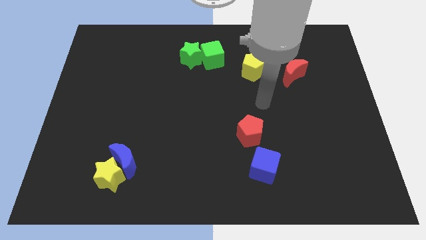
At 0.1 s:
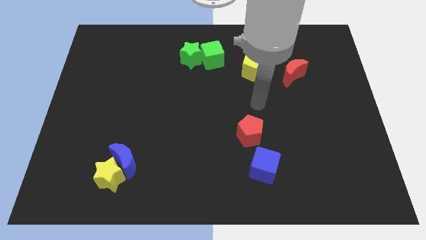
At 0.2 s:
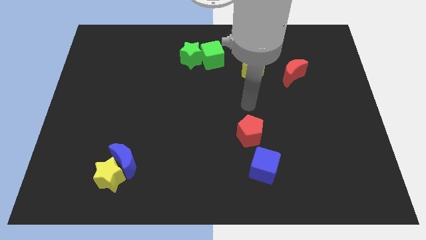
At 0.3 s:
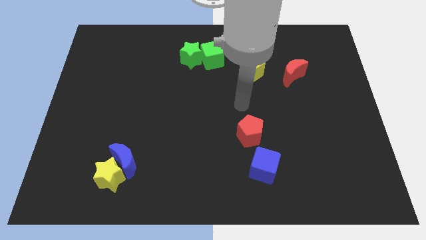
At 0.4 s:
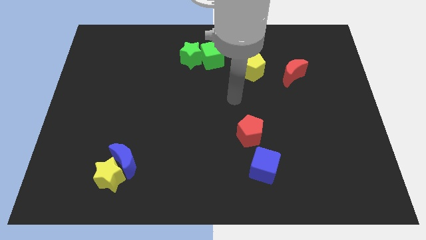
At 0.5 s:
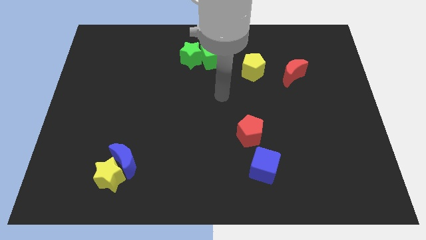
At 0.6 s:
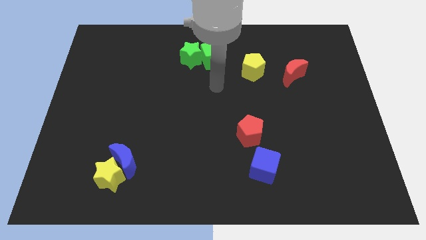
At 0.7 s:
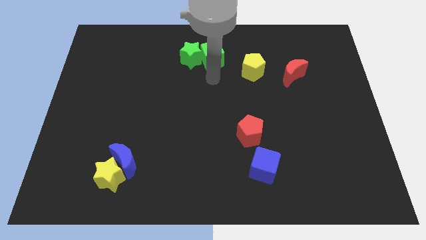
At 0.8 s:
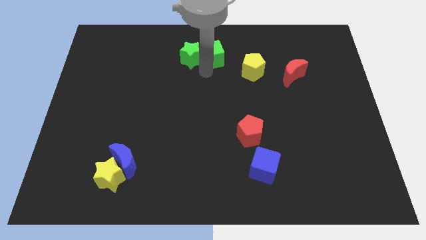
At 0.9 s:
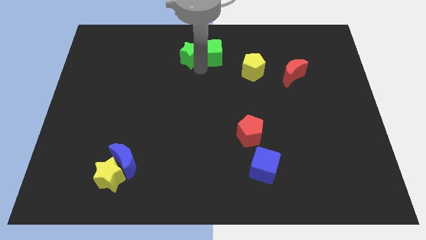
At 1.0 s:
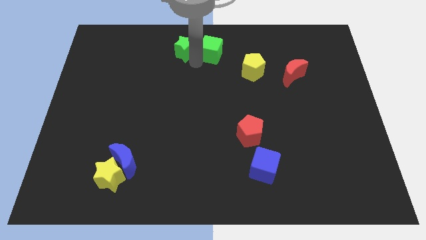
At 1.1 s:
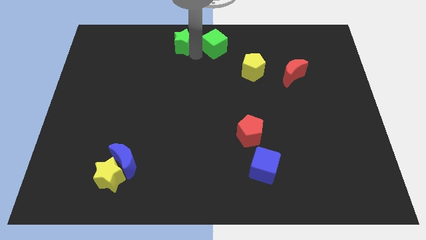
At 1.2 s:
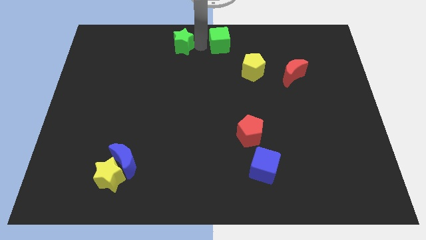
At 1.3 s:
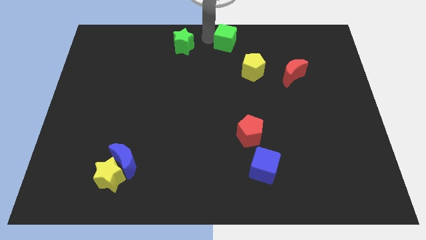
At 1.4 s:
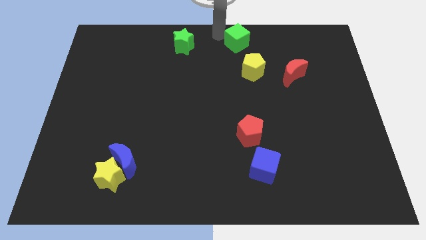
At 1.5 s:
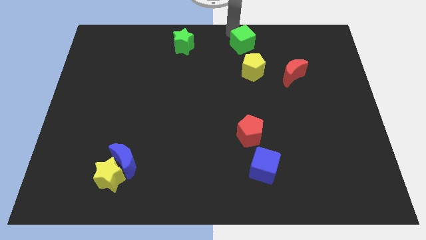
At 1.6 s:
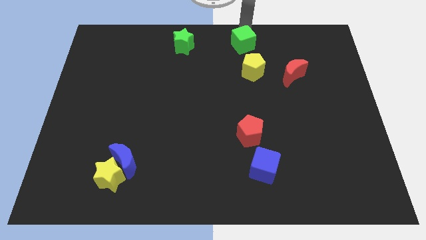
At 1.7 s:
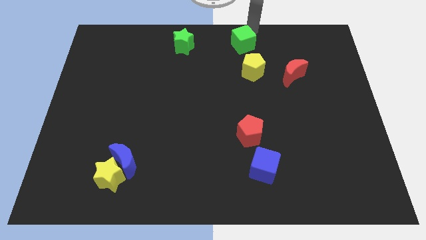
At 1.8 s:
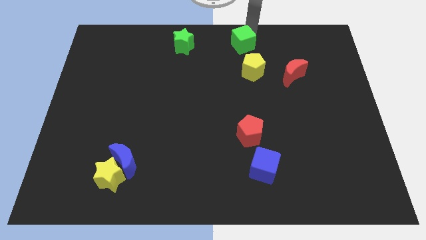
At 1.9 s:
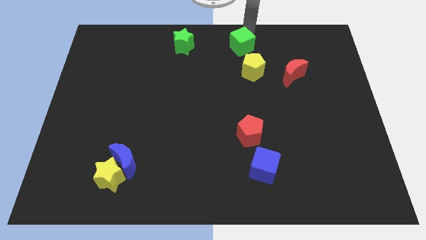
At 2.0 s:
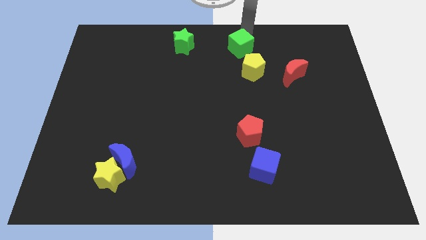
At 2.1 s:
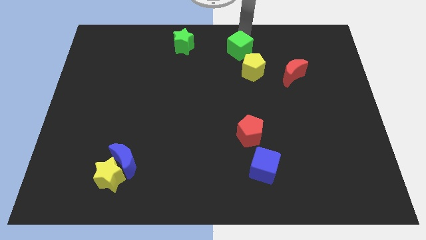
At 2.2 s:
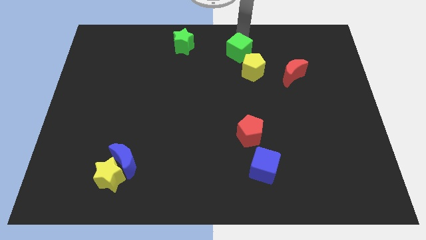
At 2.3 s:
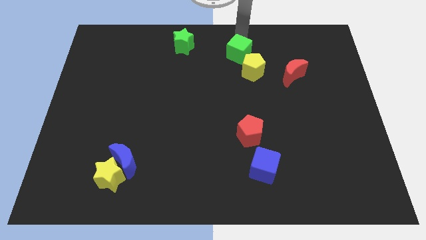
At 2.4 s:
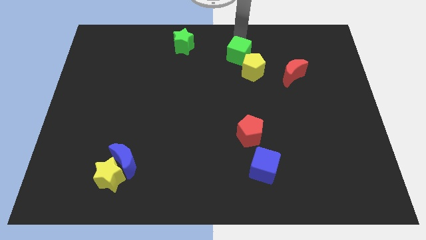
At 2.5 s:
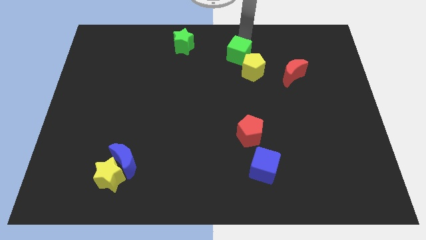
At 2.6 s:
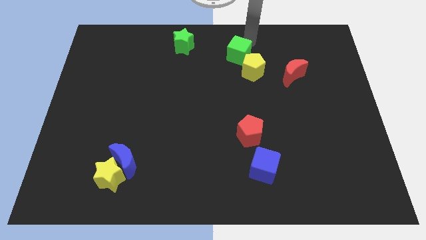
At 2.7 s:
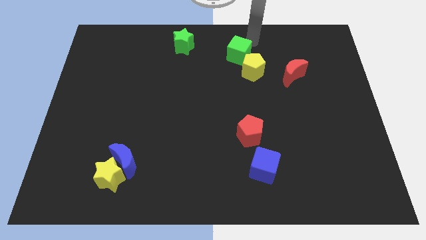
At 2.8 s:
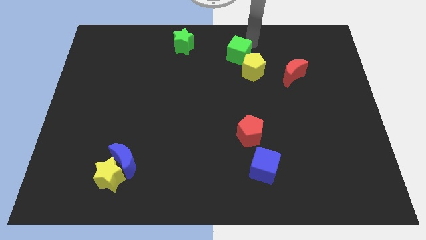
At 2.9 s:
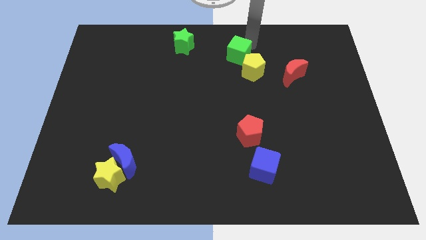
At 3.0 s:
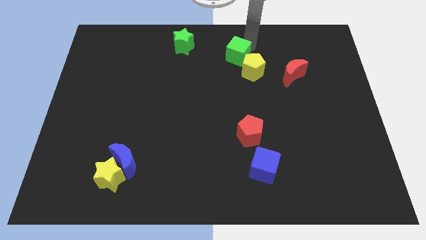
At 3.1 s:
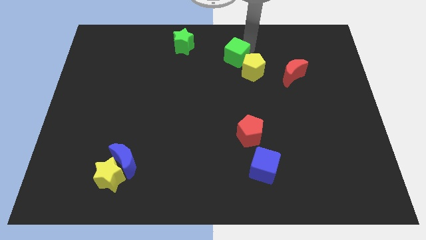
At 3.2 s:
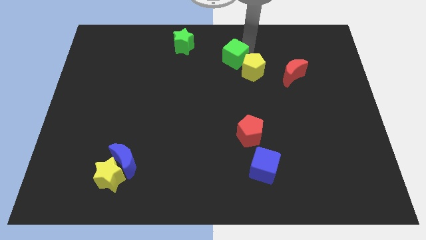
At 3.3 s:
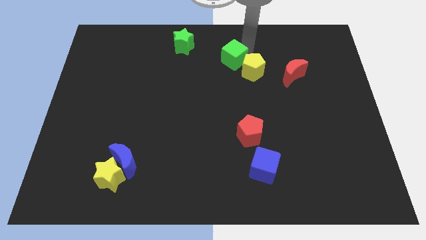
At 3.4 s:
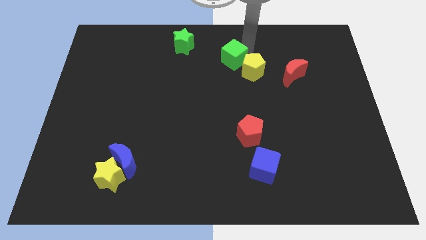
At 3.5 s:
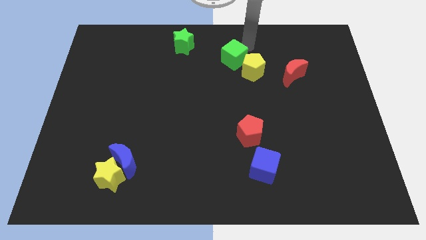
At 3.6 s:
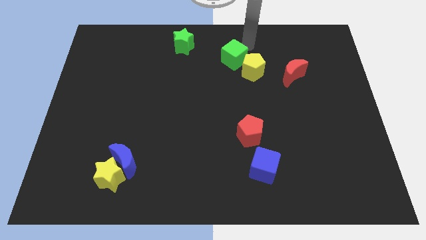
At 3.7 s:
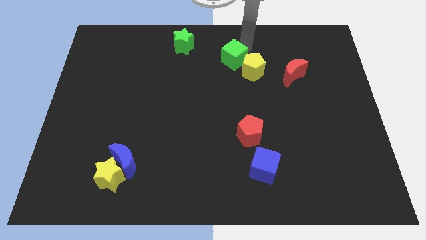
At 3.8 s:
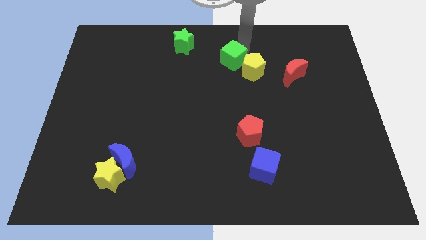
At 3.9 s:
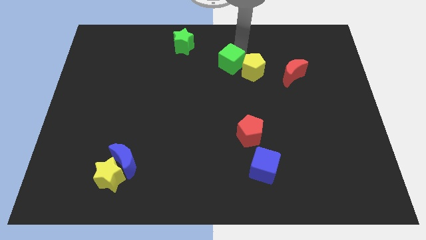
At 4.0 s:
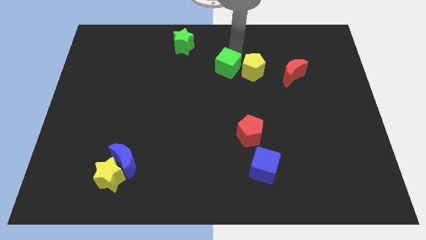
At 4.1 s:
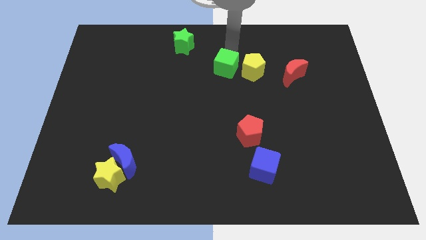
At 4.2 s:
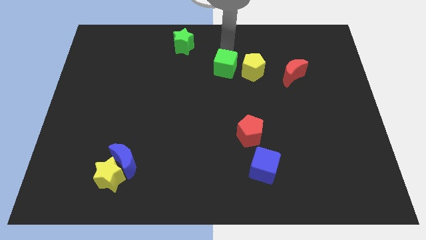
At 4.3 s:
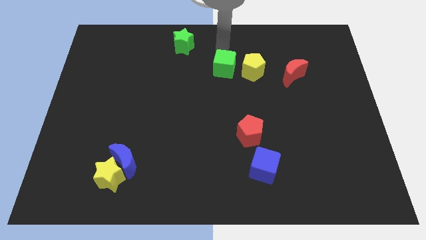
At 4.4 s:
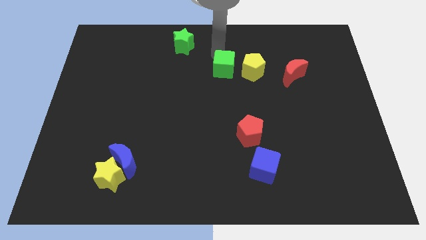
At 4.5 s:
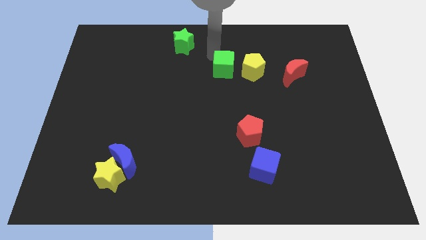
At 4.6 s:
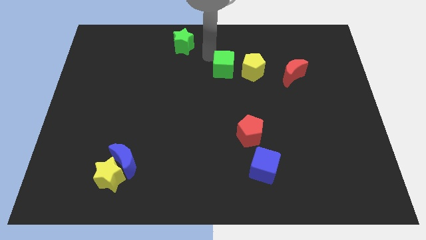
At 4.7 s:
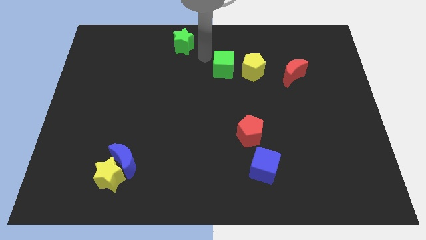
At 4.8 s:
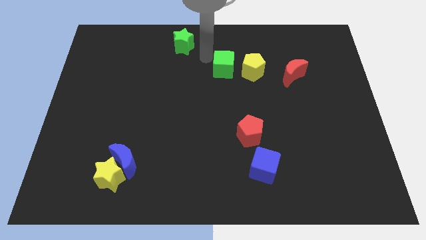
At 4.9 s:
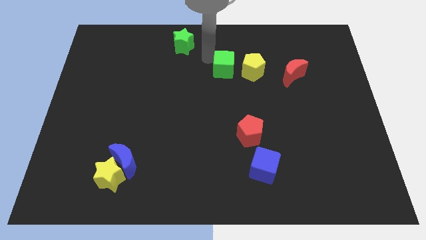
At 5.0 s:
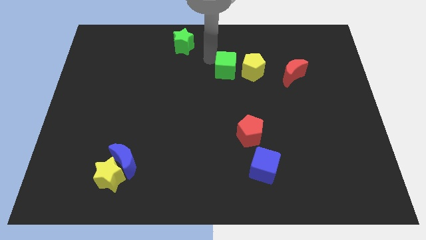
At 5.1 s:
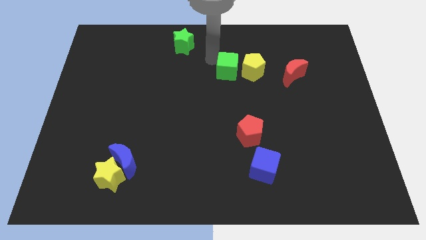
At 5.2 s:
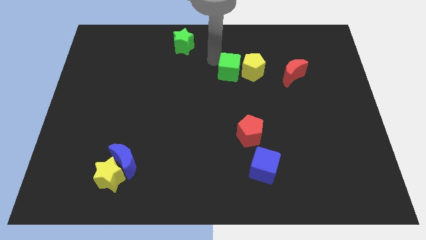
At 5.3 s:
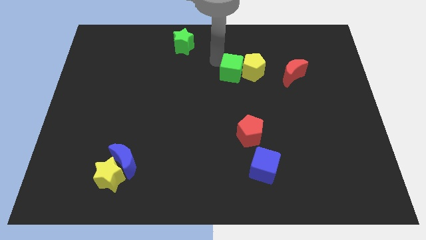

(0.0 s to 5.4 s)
push the green cube diagonally downwards and to the right somewhat

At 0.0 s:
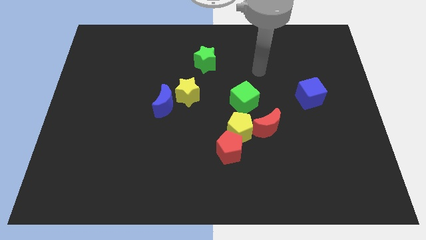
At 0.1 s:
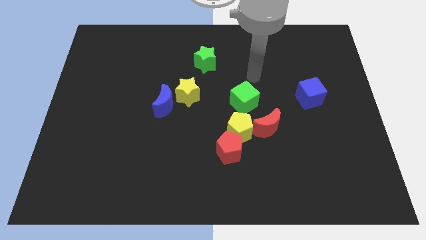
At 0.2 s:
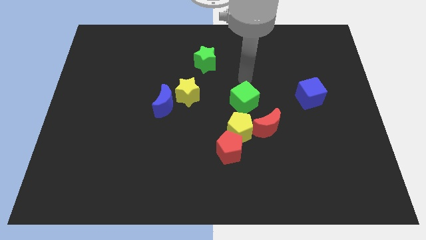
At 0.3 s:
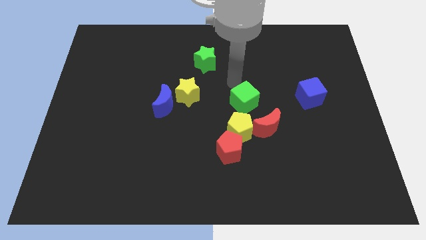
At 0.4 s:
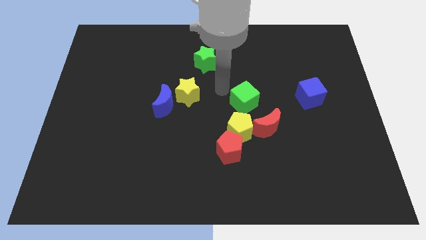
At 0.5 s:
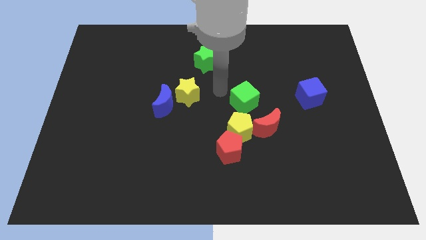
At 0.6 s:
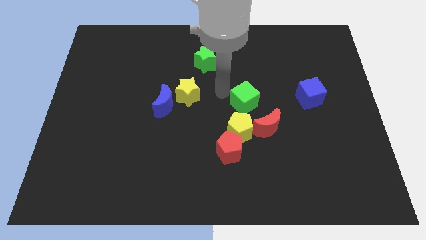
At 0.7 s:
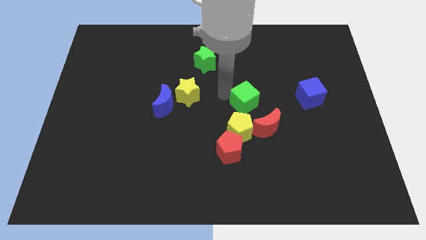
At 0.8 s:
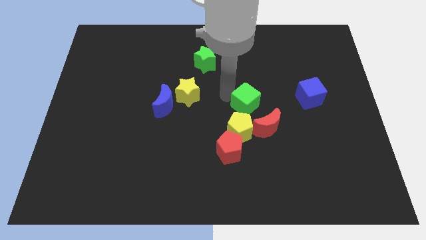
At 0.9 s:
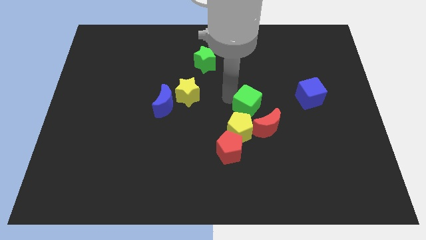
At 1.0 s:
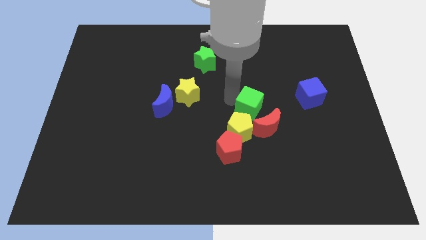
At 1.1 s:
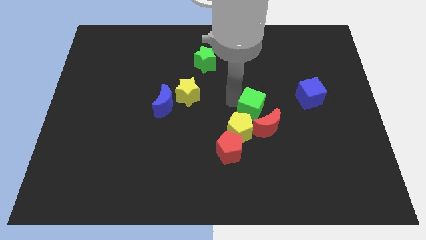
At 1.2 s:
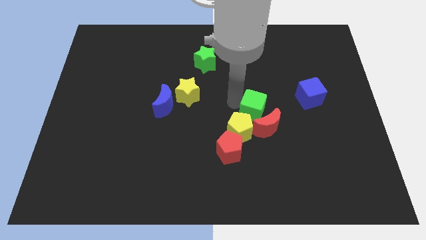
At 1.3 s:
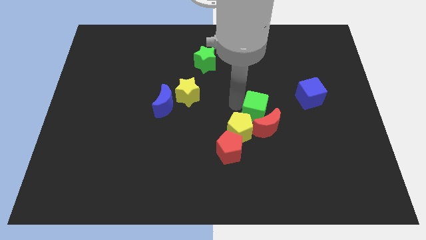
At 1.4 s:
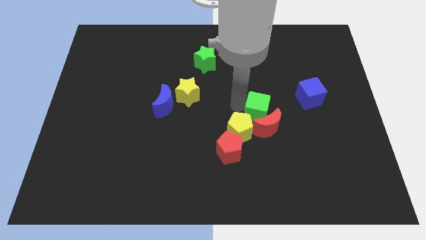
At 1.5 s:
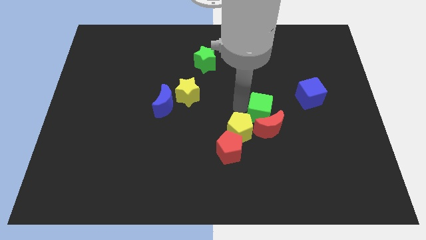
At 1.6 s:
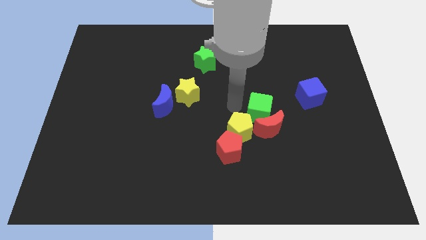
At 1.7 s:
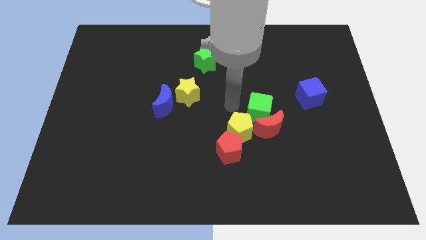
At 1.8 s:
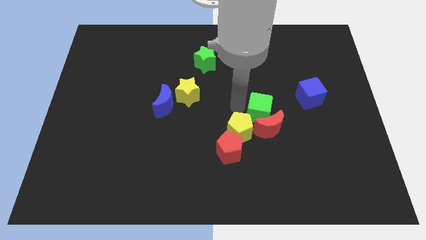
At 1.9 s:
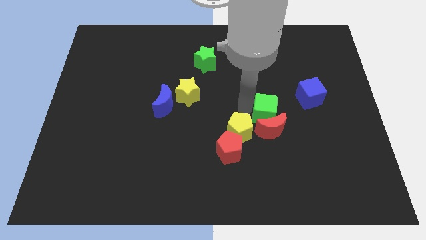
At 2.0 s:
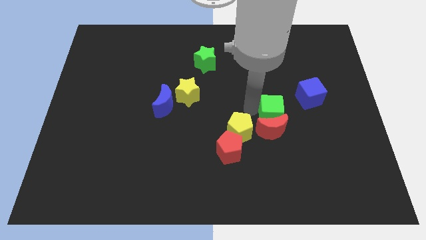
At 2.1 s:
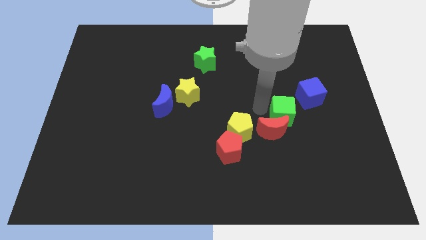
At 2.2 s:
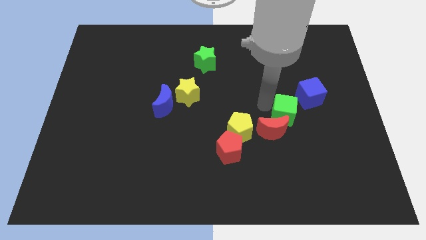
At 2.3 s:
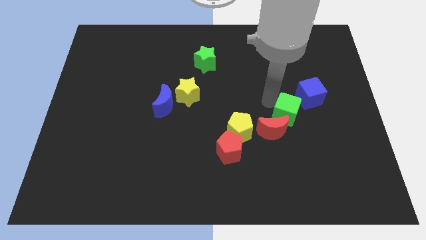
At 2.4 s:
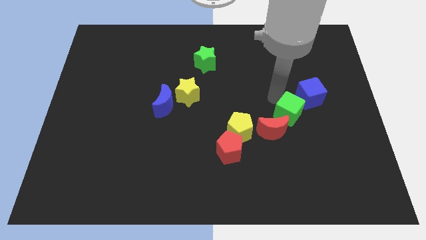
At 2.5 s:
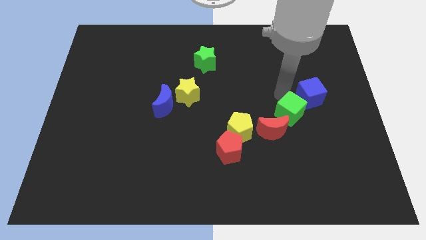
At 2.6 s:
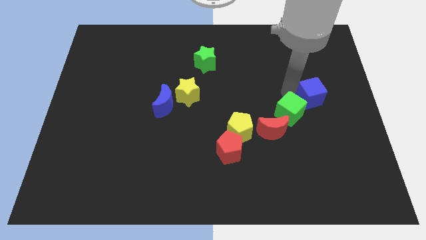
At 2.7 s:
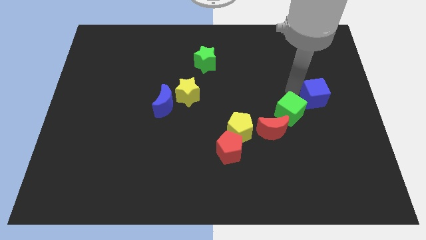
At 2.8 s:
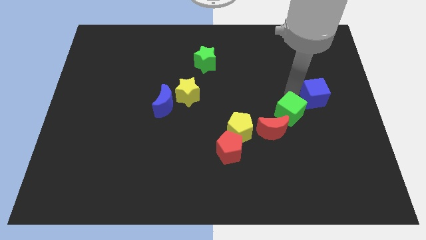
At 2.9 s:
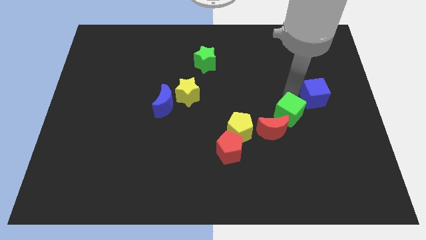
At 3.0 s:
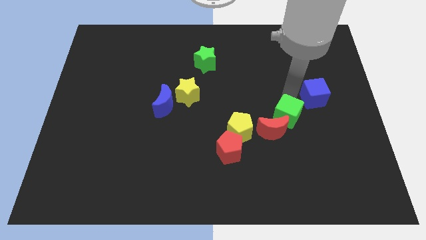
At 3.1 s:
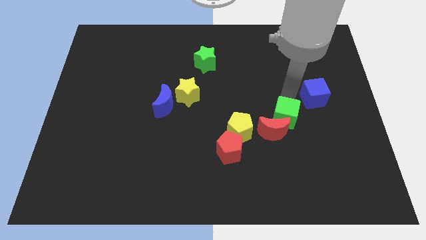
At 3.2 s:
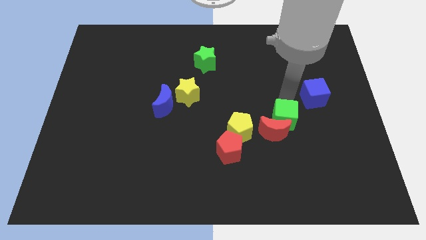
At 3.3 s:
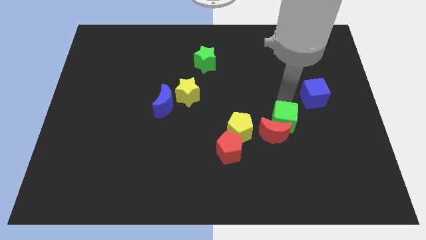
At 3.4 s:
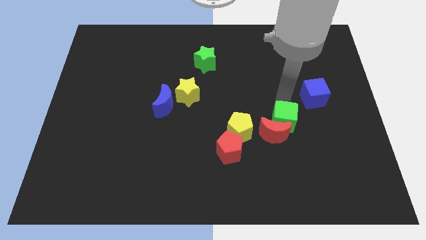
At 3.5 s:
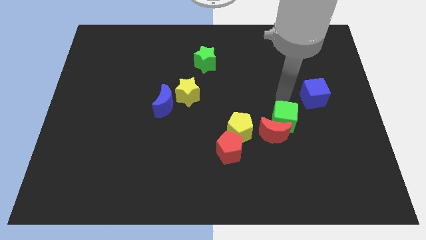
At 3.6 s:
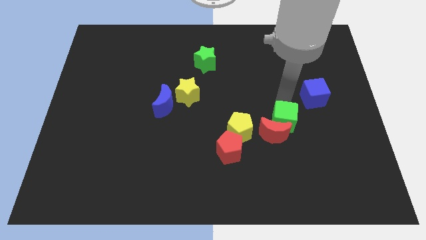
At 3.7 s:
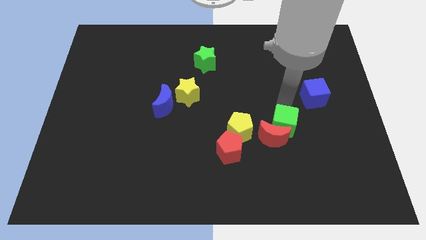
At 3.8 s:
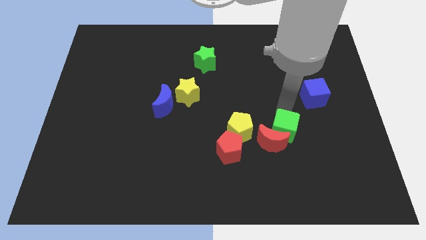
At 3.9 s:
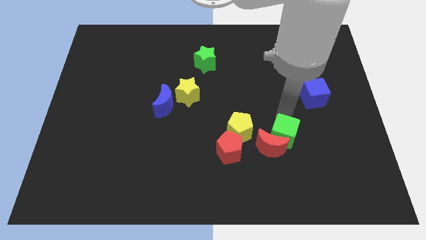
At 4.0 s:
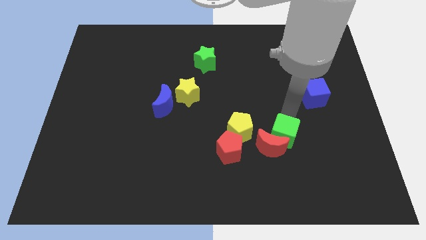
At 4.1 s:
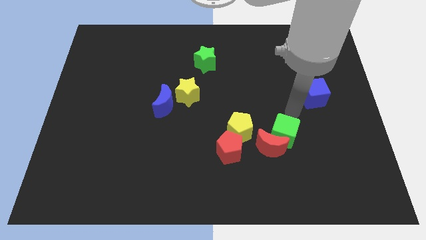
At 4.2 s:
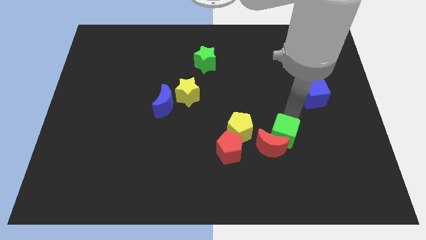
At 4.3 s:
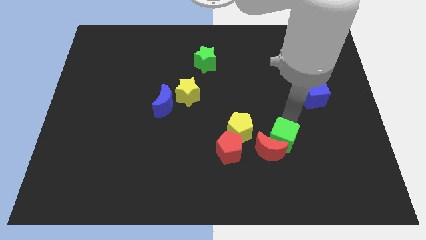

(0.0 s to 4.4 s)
slightly push the green cube downwards
